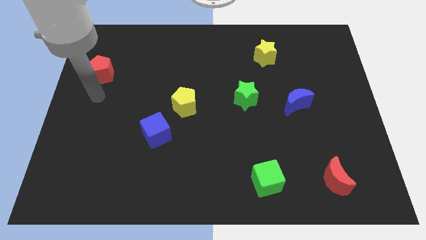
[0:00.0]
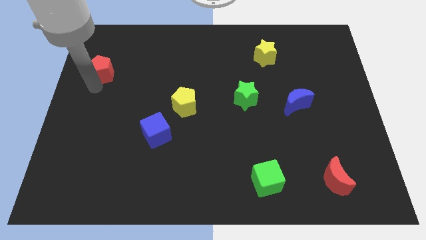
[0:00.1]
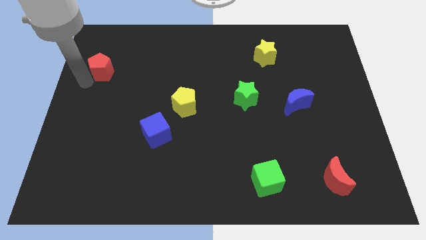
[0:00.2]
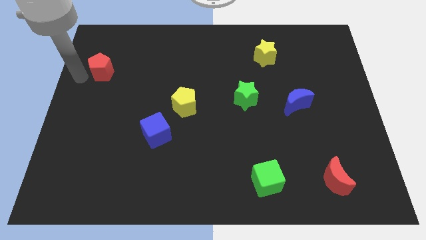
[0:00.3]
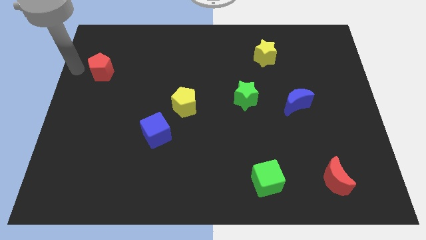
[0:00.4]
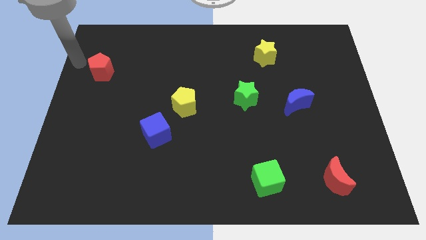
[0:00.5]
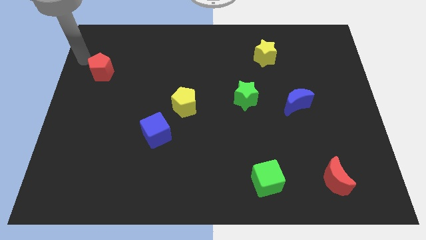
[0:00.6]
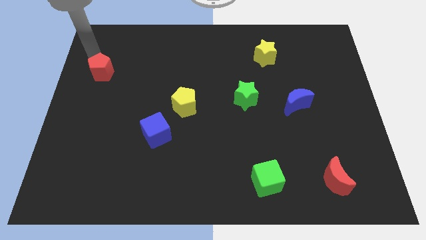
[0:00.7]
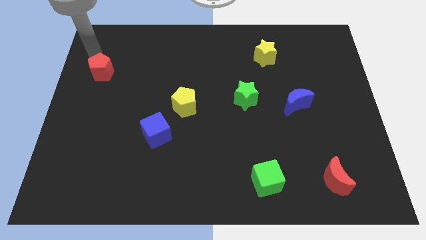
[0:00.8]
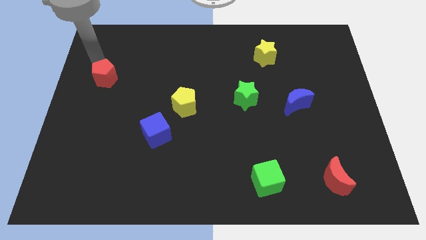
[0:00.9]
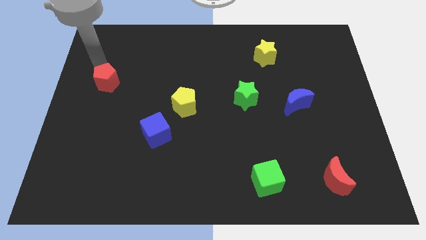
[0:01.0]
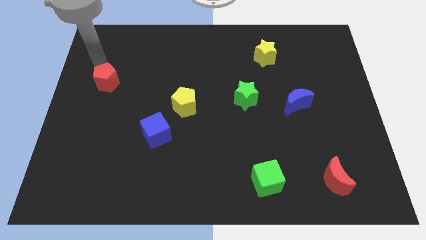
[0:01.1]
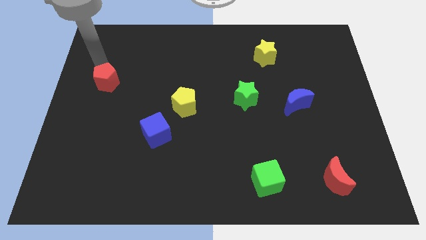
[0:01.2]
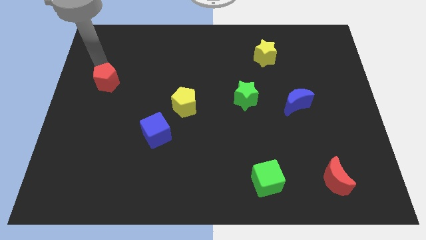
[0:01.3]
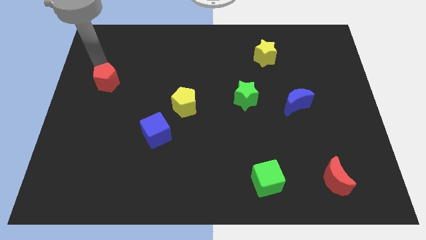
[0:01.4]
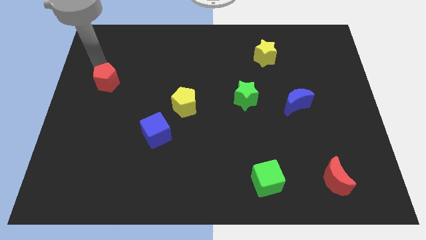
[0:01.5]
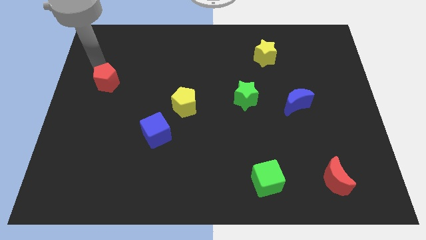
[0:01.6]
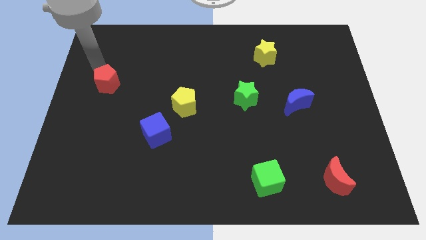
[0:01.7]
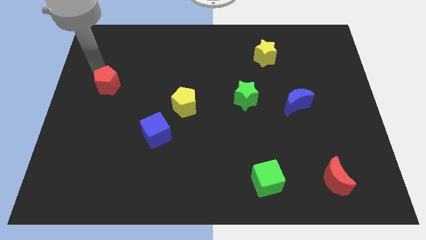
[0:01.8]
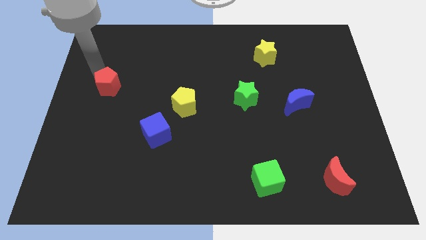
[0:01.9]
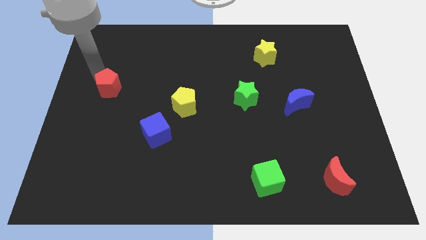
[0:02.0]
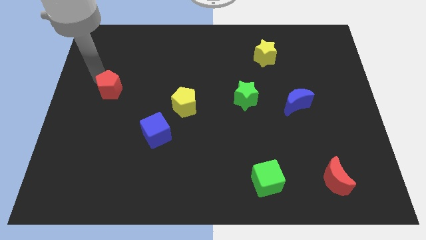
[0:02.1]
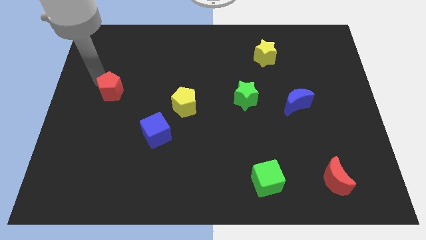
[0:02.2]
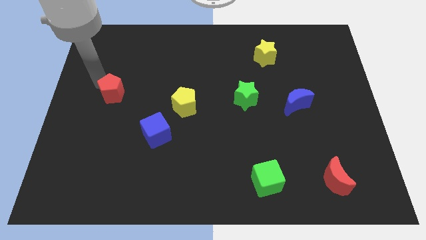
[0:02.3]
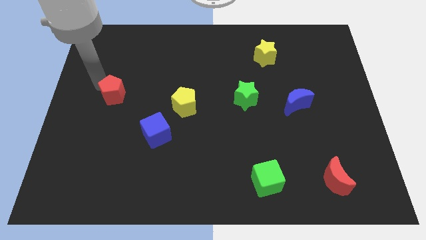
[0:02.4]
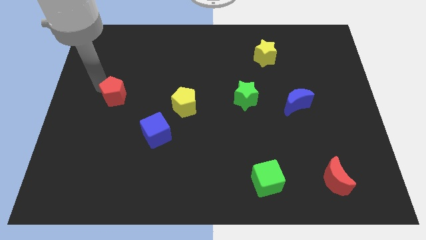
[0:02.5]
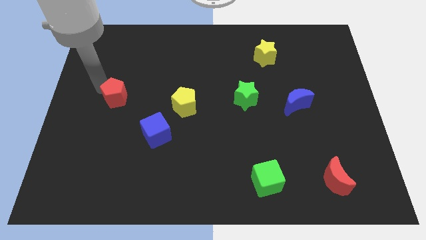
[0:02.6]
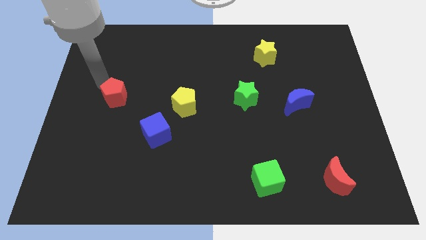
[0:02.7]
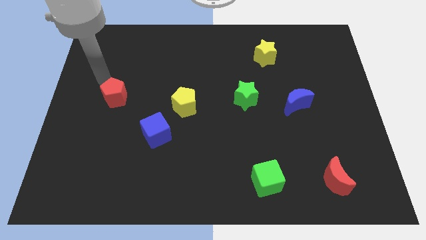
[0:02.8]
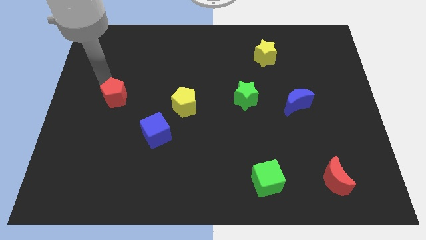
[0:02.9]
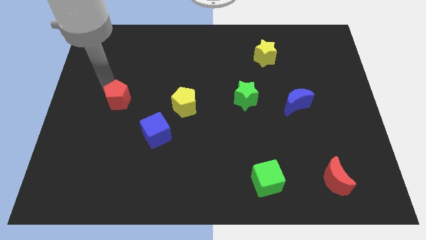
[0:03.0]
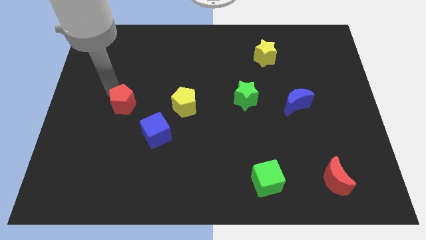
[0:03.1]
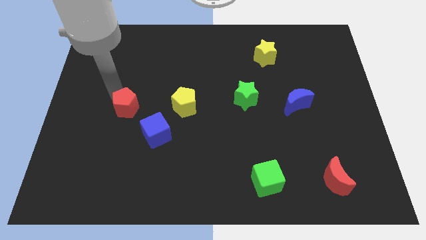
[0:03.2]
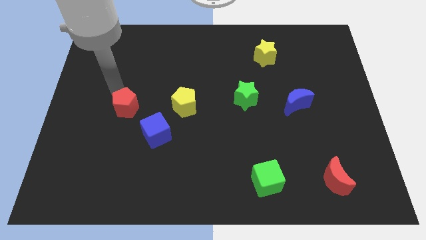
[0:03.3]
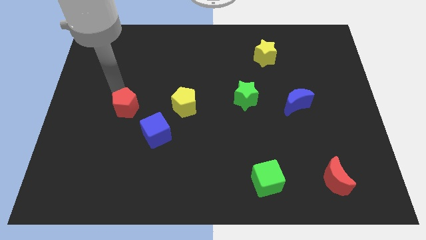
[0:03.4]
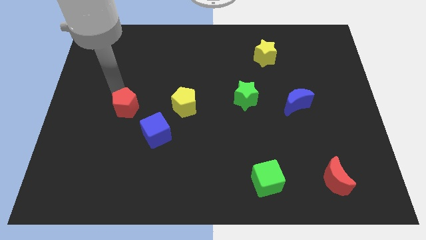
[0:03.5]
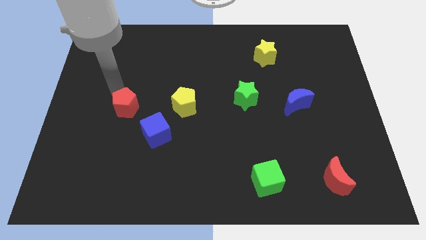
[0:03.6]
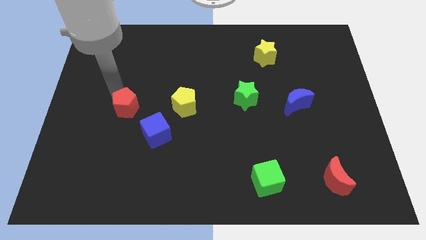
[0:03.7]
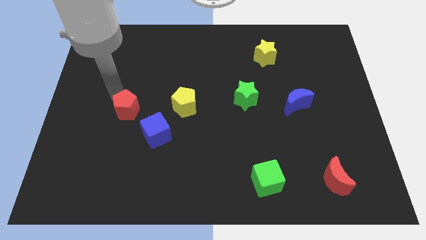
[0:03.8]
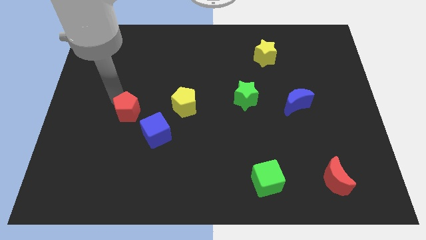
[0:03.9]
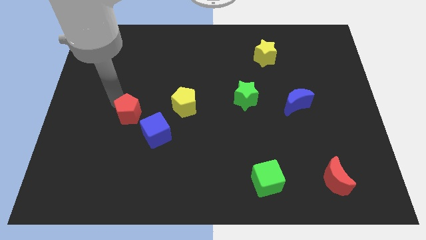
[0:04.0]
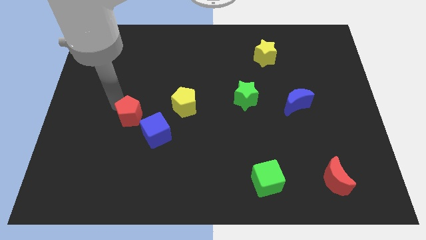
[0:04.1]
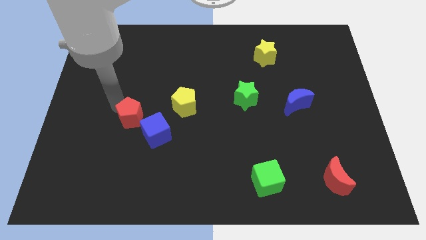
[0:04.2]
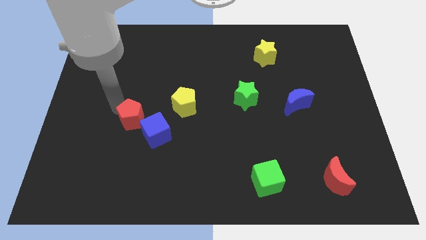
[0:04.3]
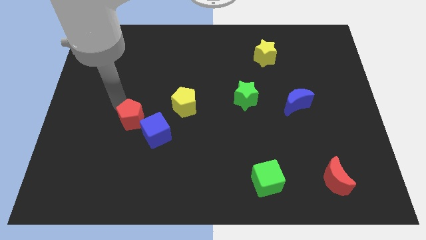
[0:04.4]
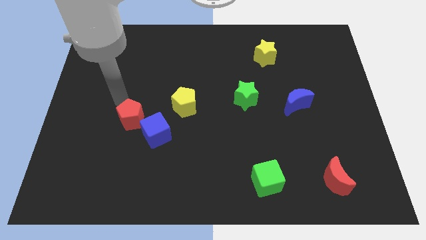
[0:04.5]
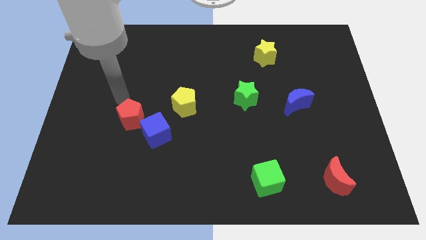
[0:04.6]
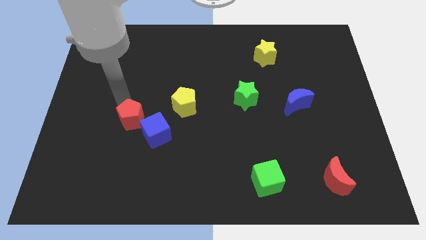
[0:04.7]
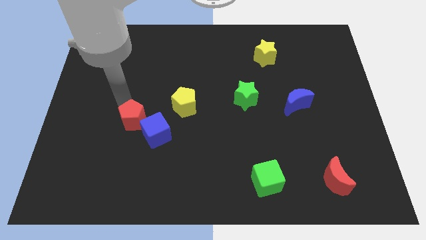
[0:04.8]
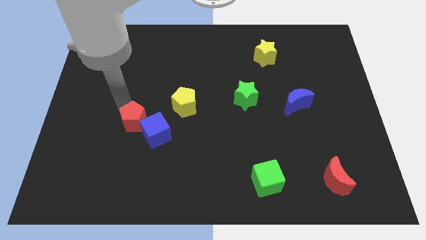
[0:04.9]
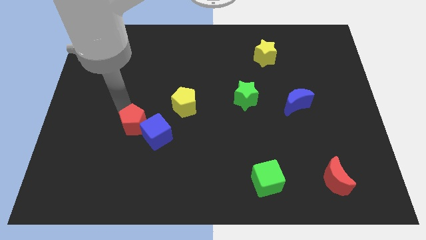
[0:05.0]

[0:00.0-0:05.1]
slide the red pentagon to the blue cube

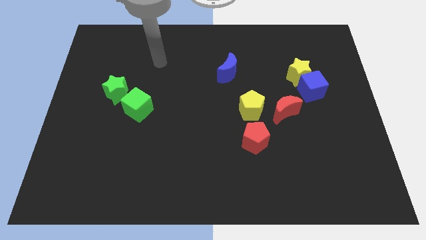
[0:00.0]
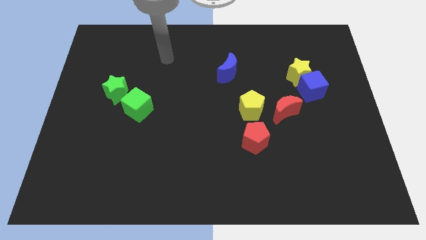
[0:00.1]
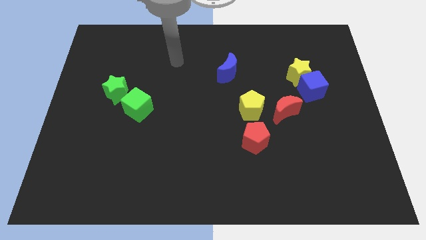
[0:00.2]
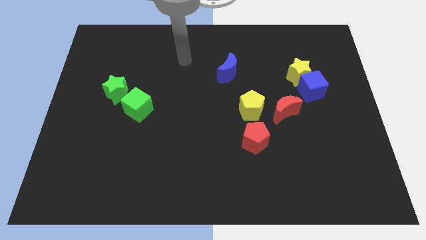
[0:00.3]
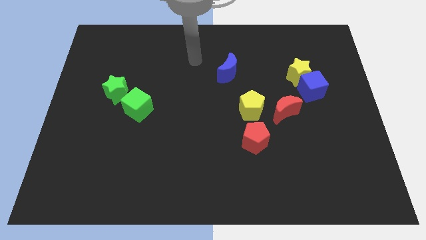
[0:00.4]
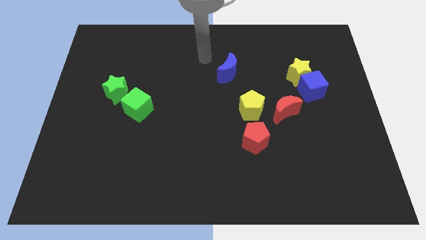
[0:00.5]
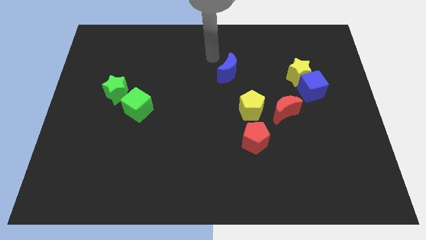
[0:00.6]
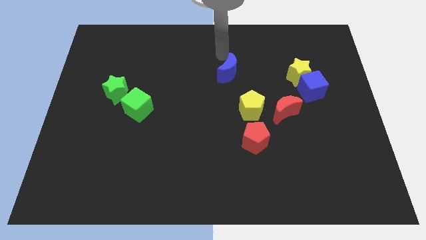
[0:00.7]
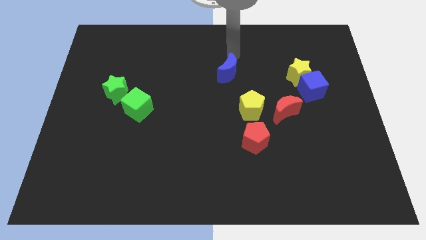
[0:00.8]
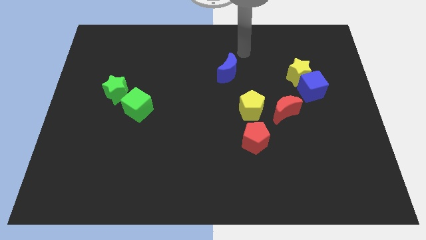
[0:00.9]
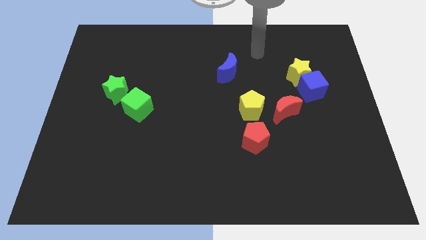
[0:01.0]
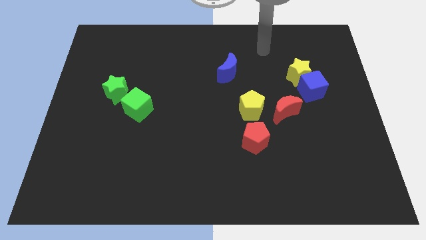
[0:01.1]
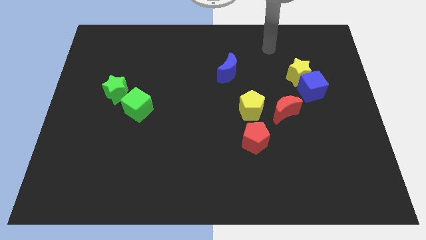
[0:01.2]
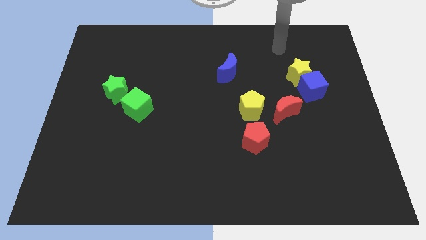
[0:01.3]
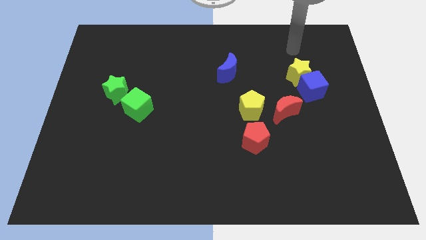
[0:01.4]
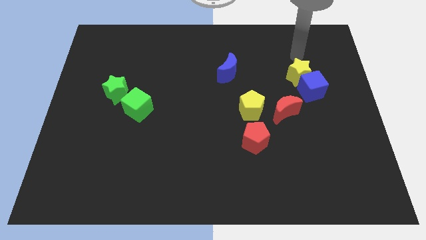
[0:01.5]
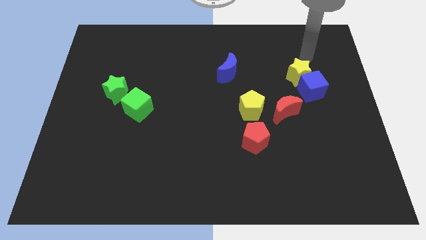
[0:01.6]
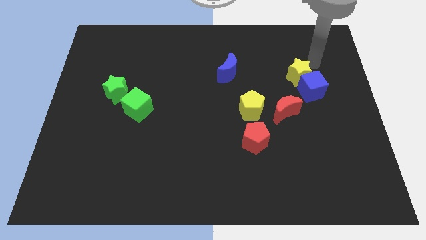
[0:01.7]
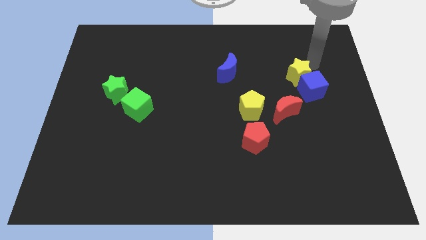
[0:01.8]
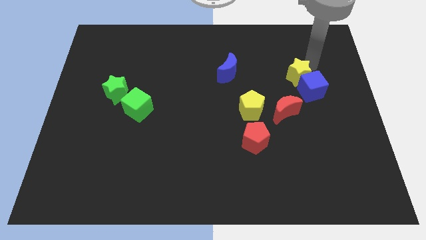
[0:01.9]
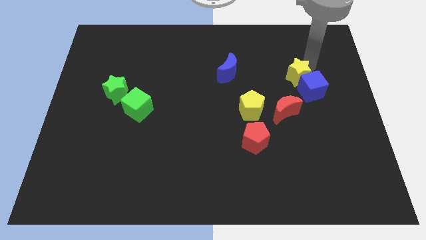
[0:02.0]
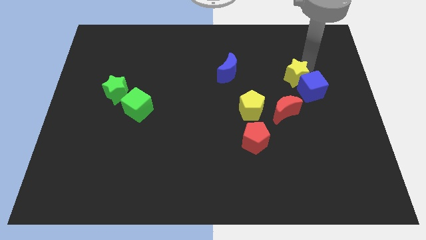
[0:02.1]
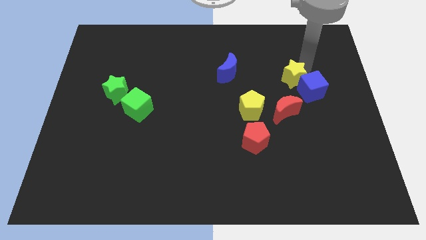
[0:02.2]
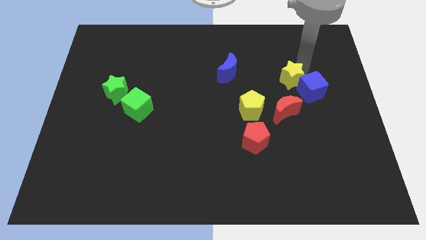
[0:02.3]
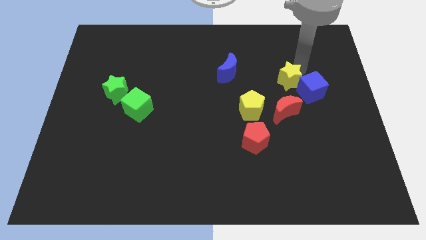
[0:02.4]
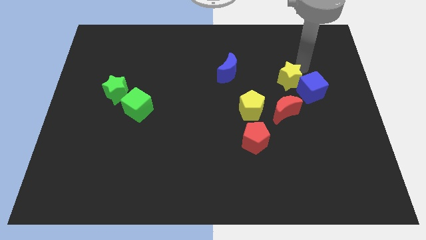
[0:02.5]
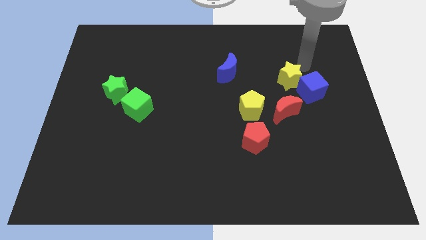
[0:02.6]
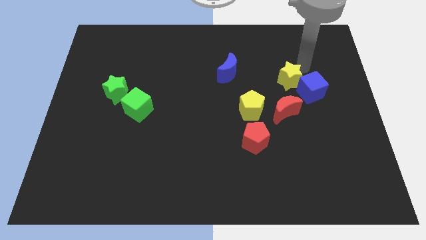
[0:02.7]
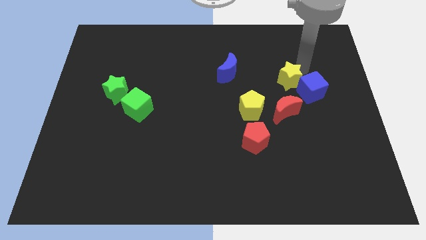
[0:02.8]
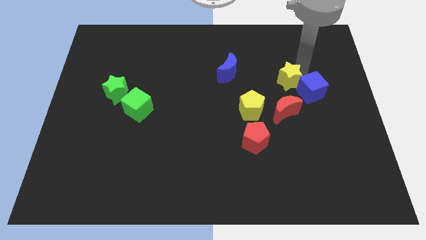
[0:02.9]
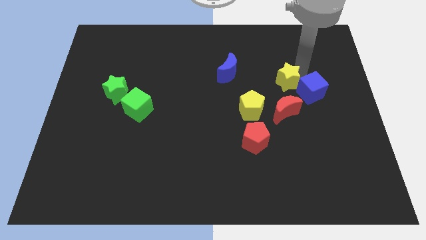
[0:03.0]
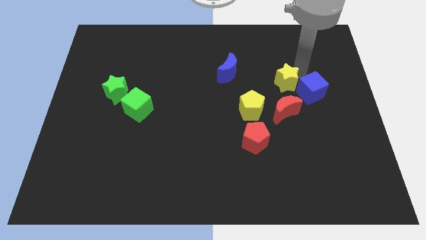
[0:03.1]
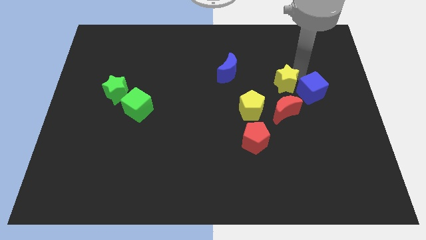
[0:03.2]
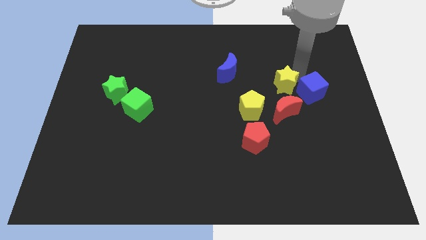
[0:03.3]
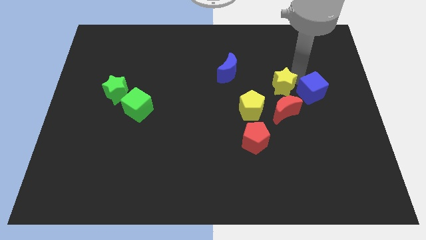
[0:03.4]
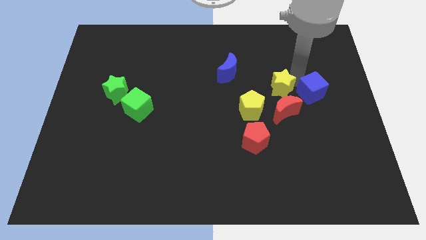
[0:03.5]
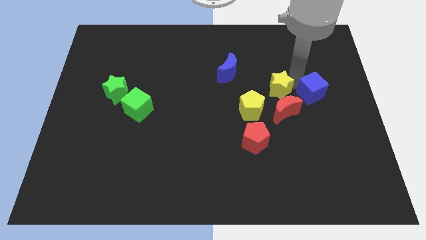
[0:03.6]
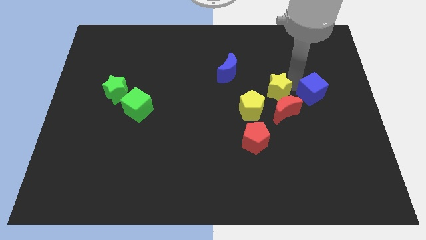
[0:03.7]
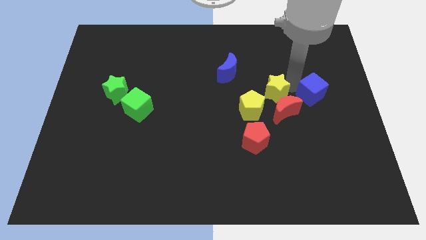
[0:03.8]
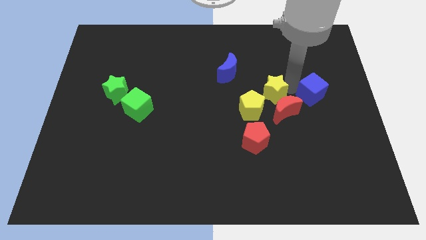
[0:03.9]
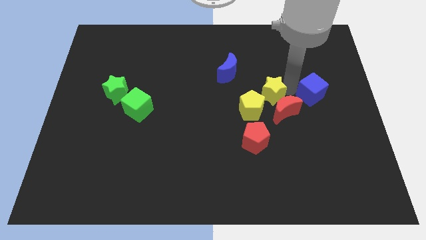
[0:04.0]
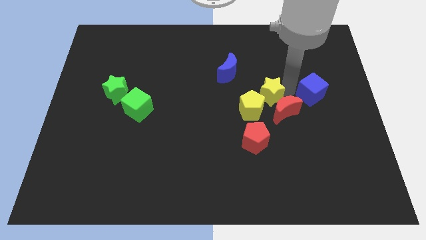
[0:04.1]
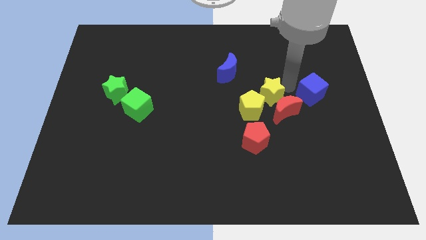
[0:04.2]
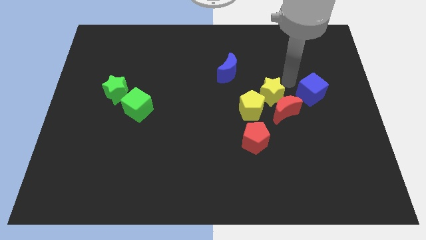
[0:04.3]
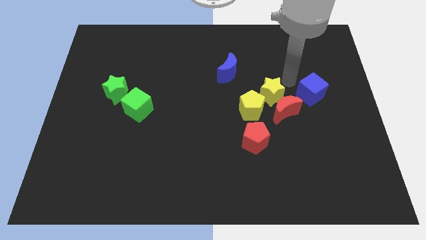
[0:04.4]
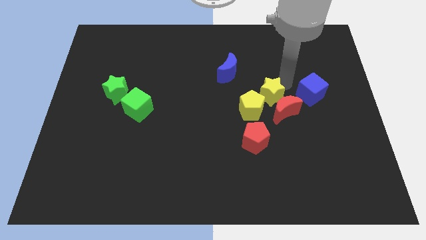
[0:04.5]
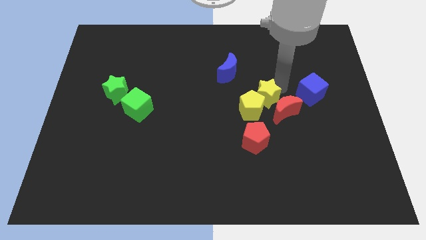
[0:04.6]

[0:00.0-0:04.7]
move the yellow star next to the yellow pentagon
